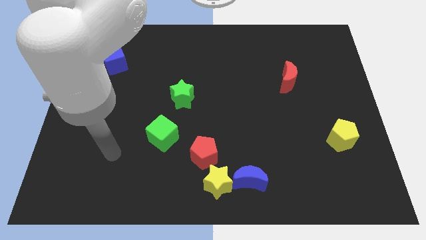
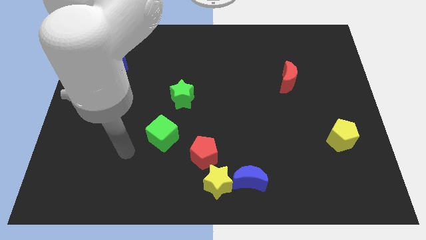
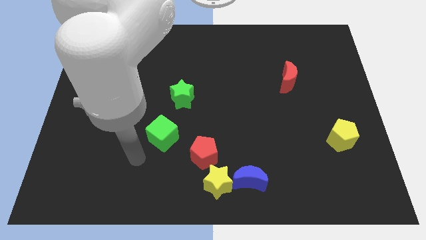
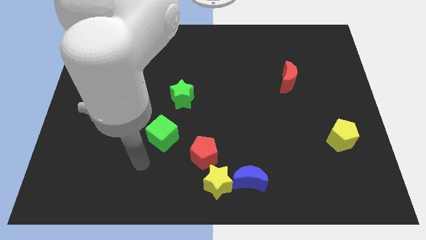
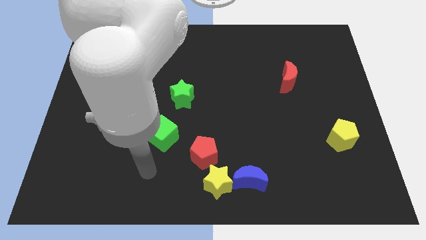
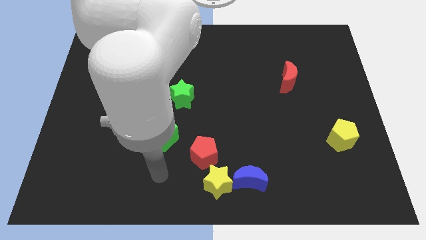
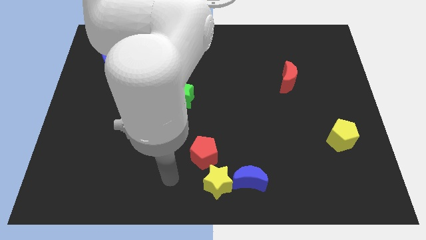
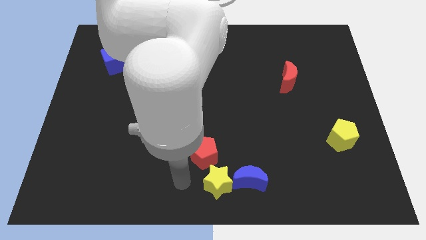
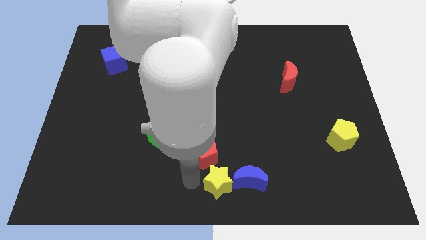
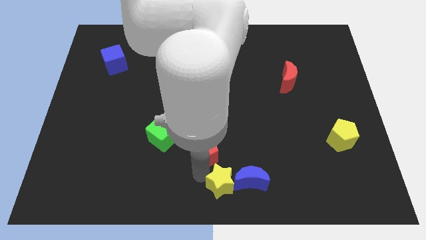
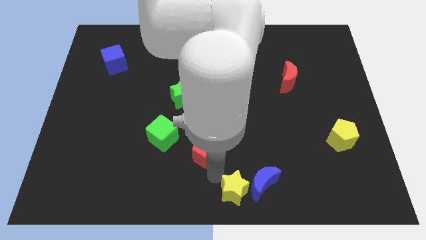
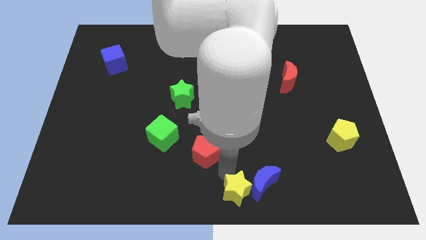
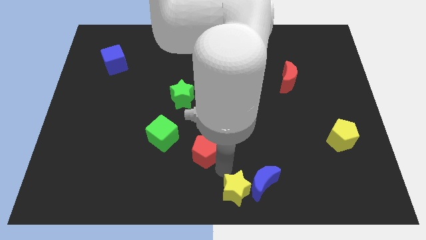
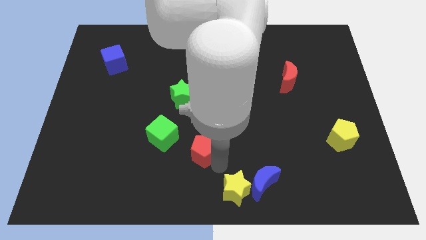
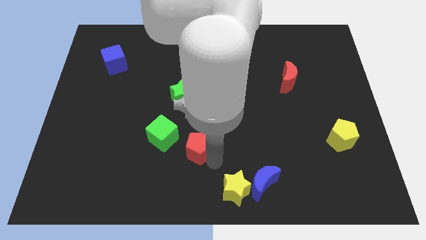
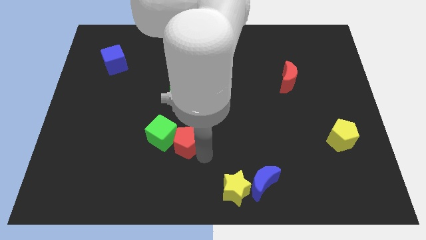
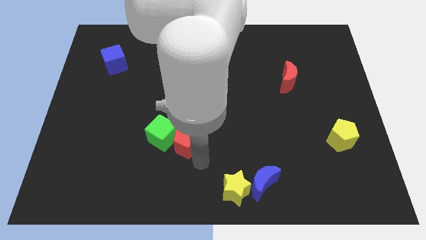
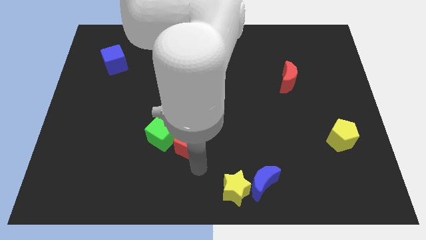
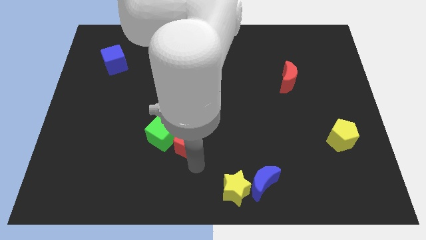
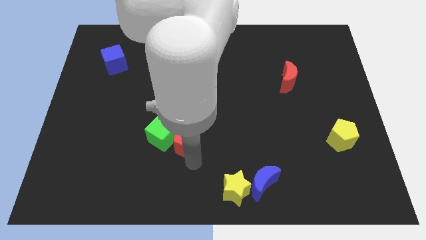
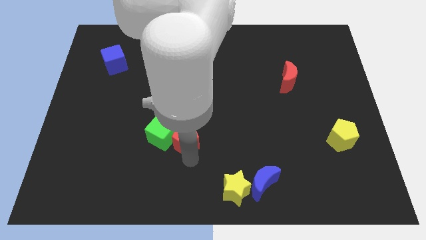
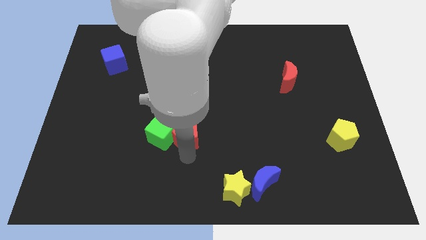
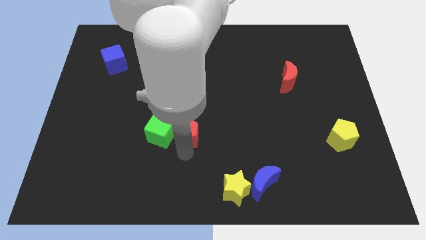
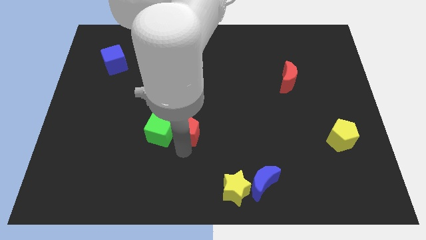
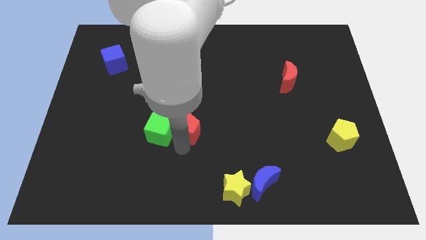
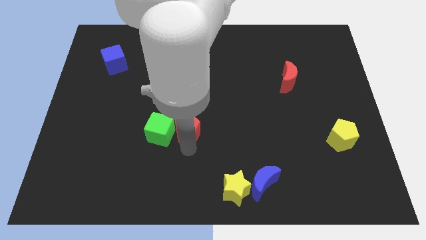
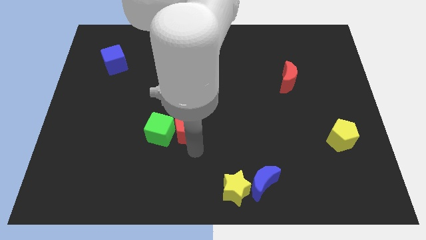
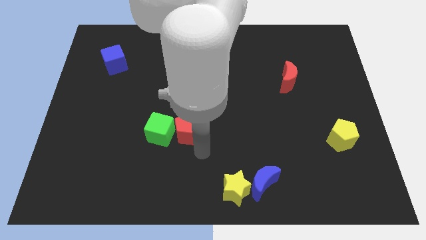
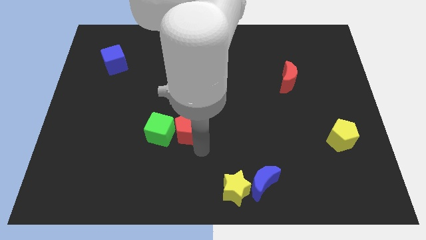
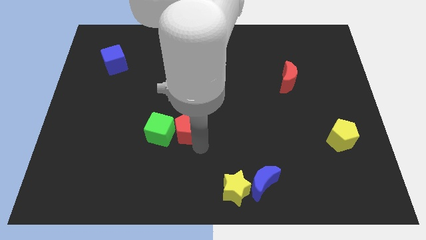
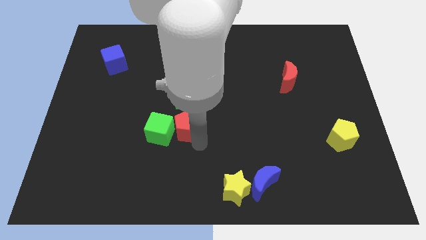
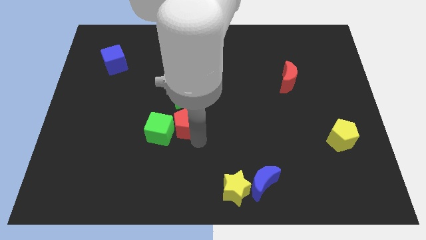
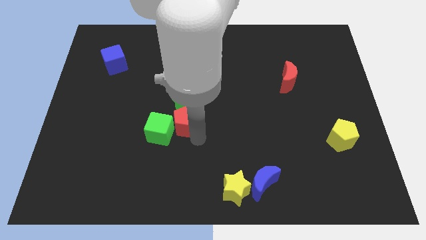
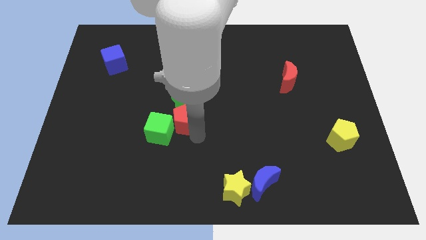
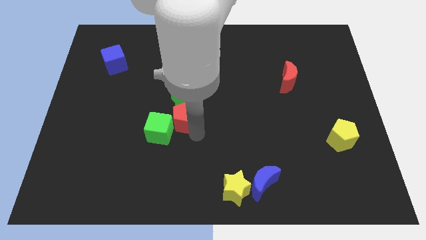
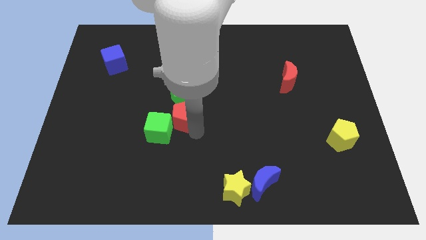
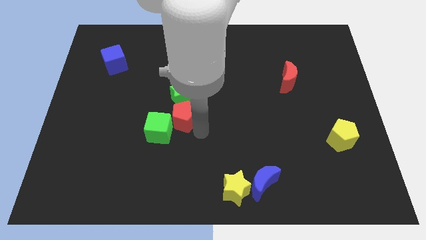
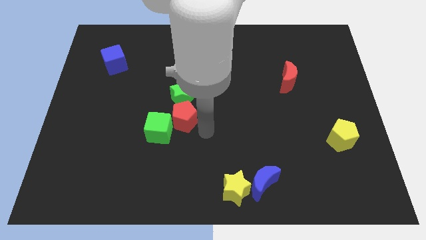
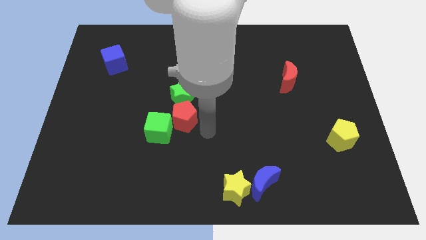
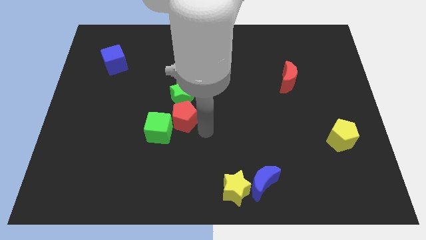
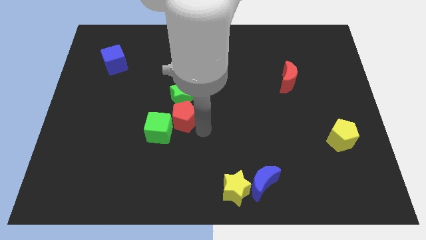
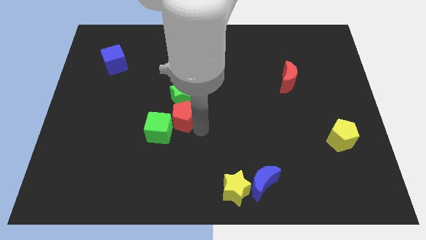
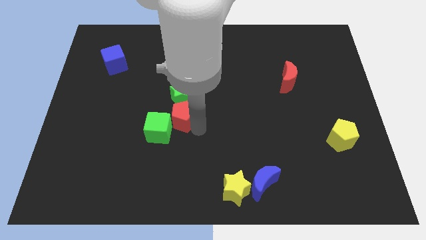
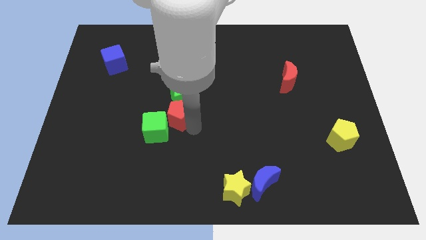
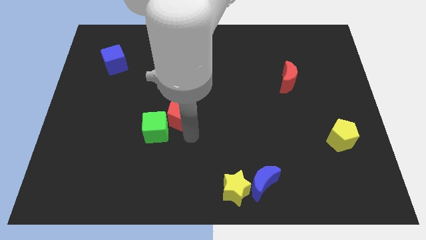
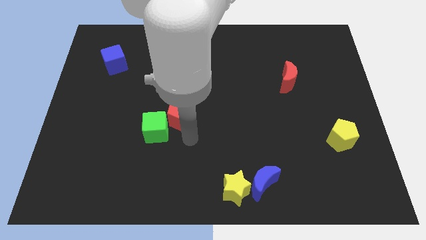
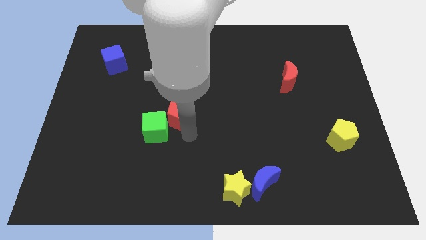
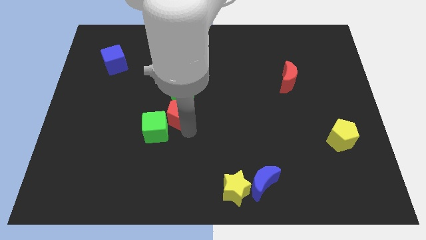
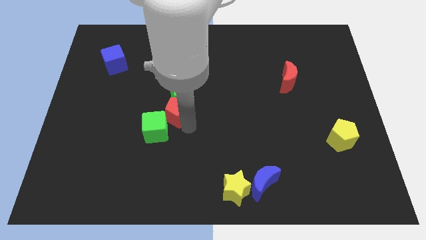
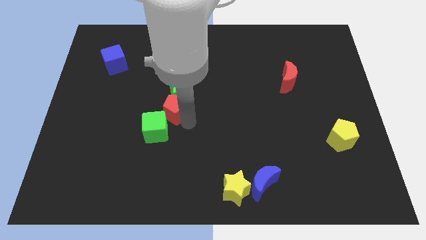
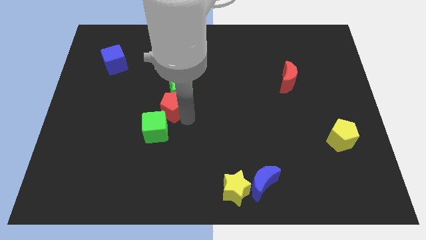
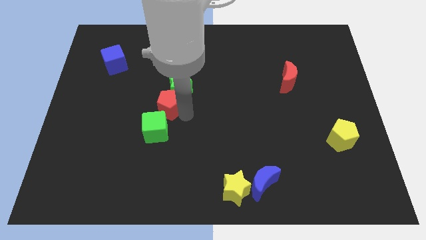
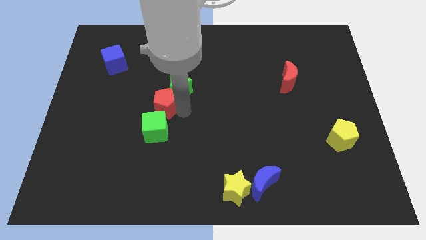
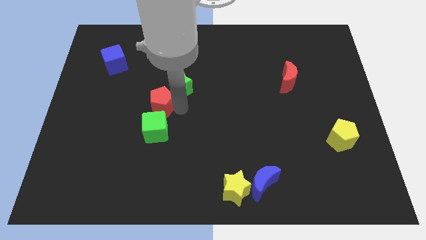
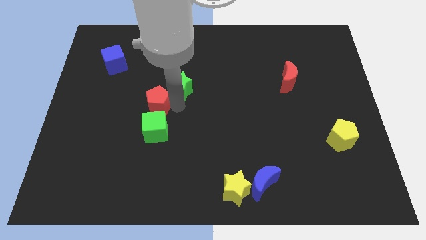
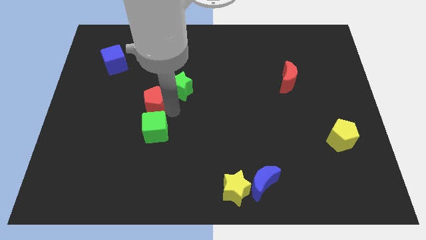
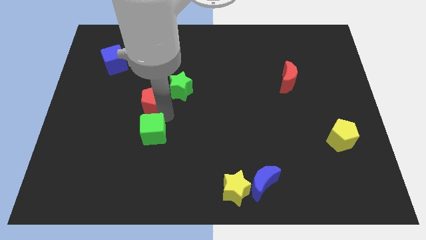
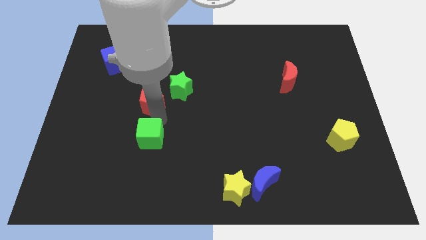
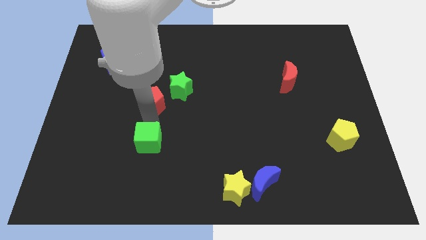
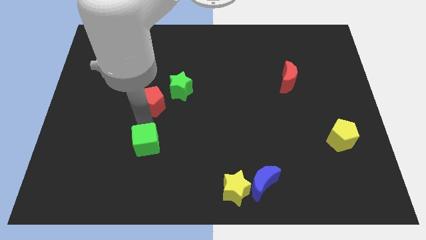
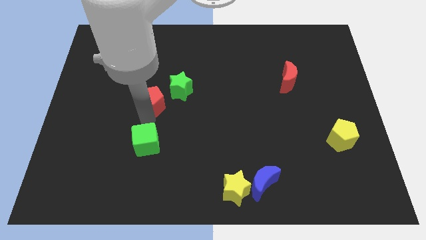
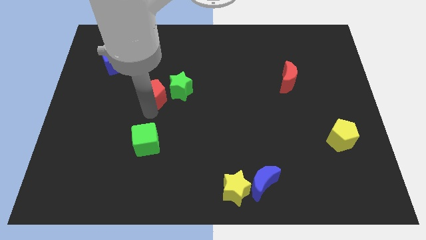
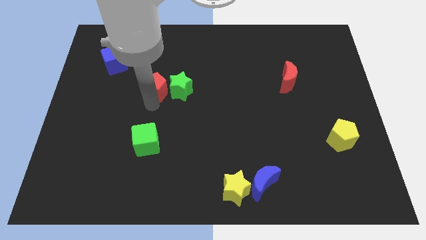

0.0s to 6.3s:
put the red pentagon to the top left side of the green star

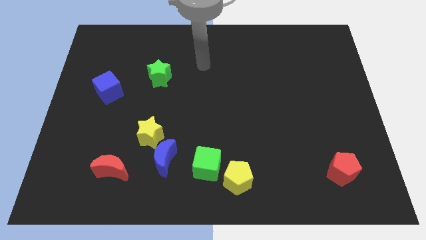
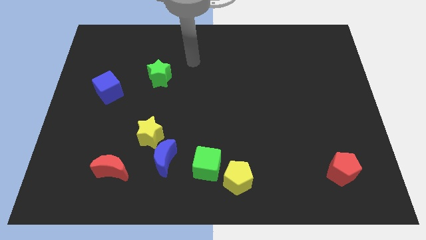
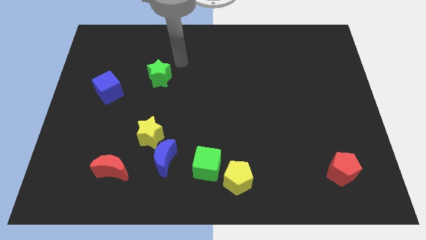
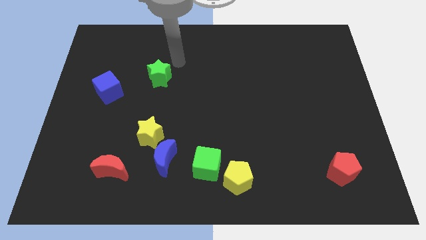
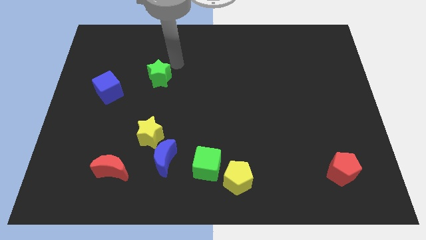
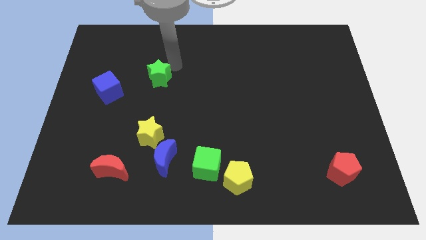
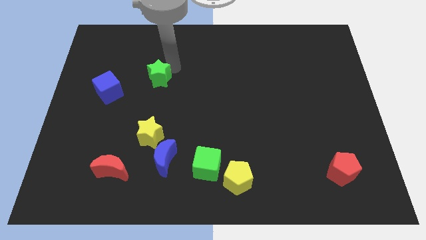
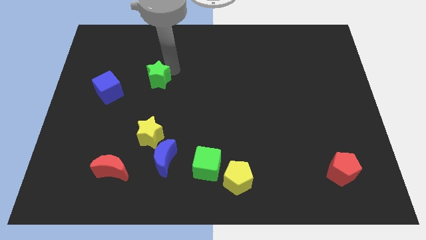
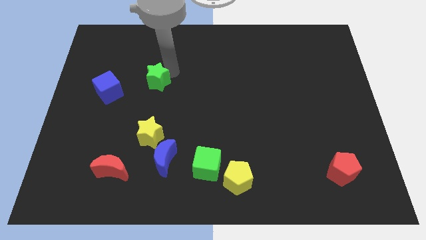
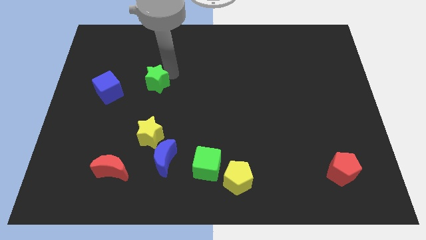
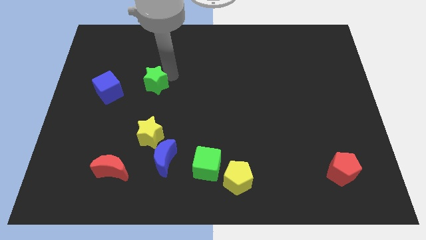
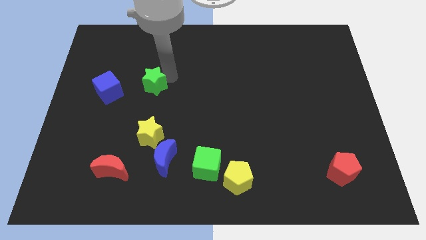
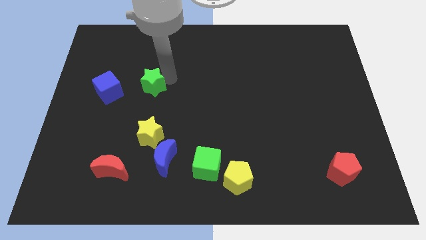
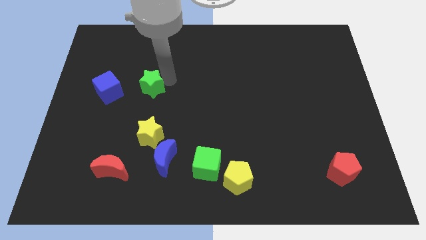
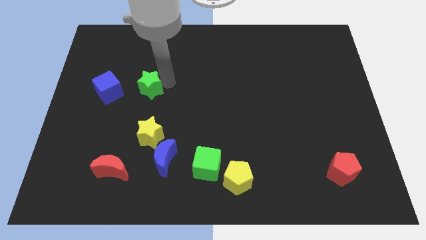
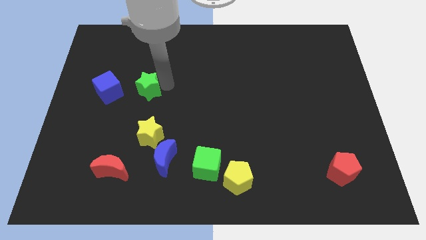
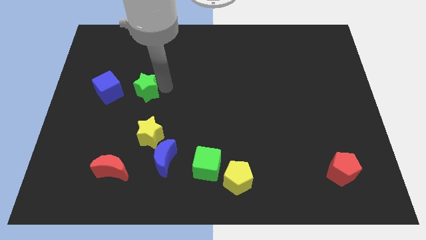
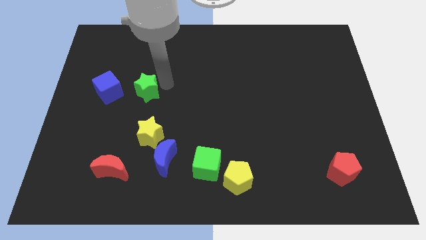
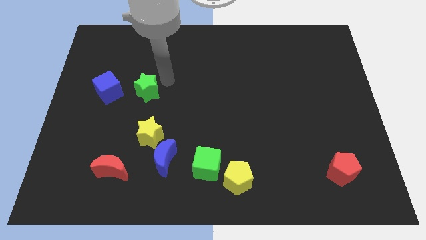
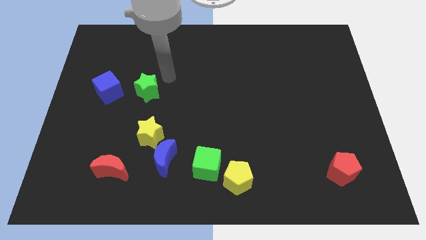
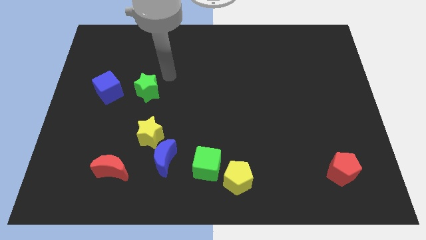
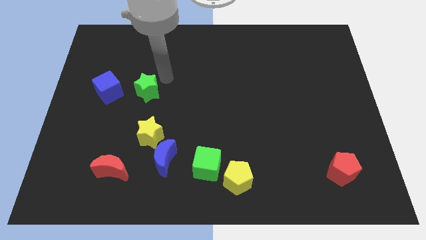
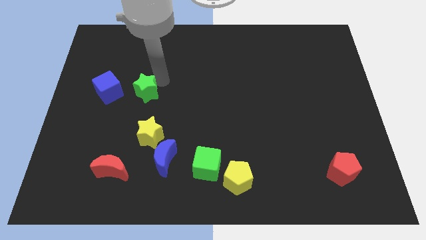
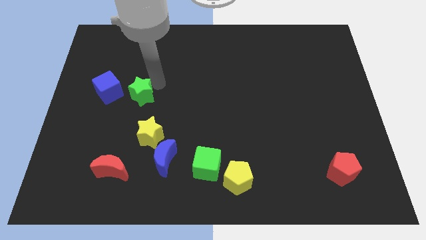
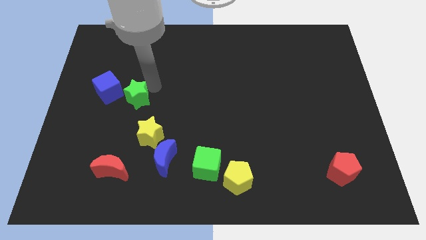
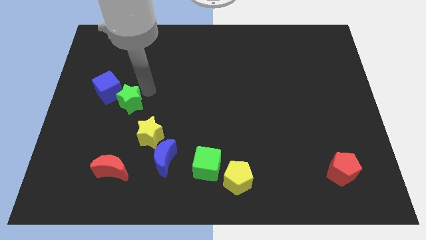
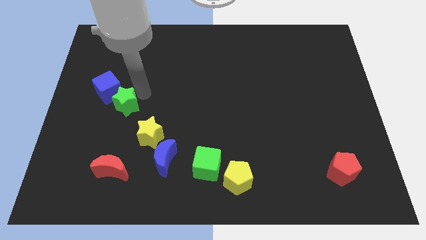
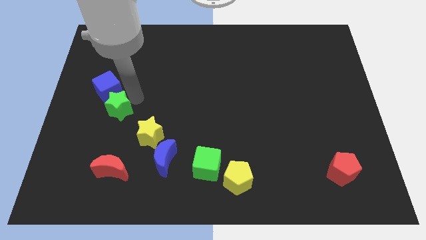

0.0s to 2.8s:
push the green star to the bottom of the blue cube
